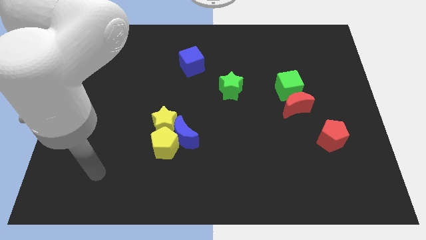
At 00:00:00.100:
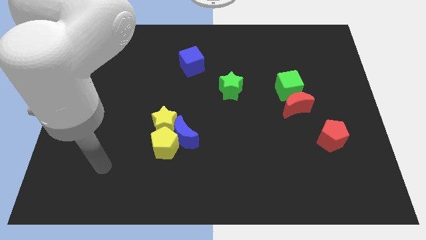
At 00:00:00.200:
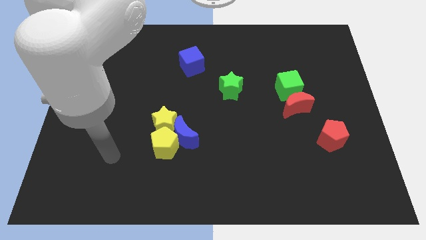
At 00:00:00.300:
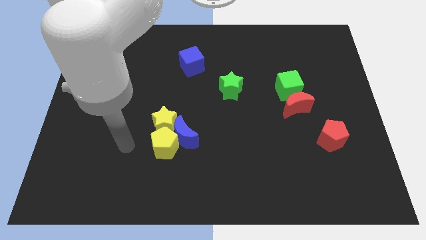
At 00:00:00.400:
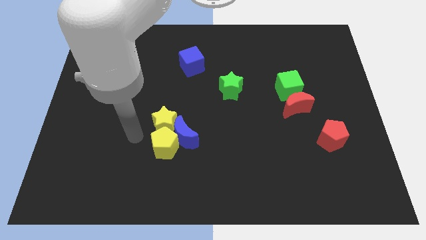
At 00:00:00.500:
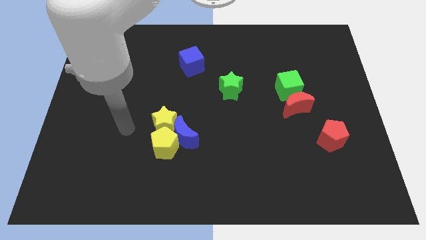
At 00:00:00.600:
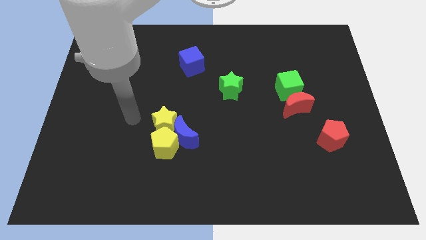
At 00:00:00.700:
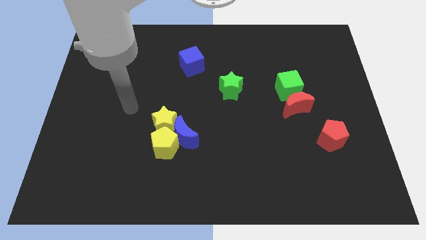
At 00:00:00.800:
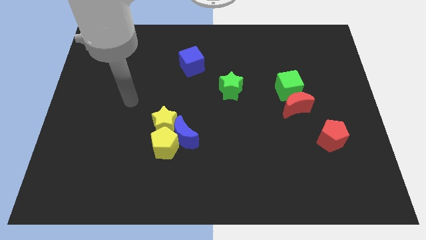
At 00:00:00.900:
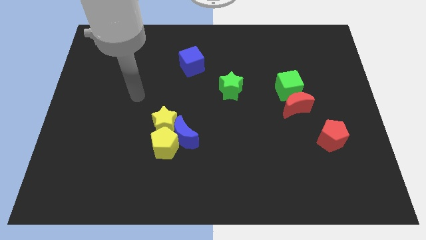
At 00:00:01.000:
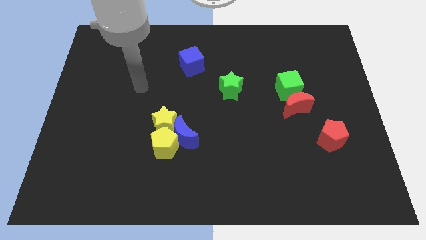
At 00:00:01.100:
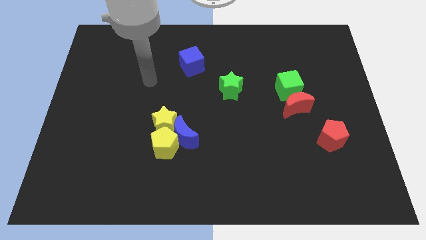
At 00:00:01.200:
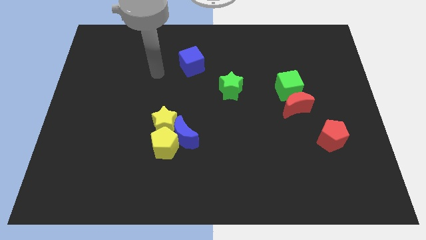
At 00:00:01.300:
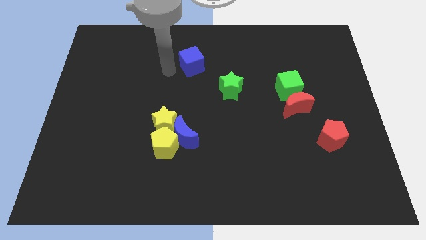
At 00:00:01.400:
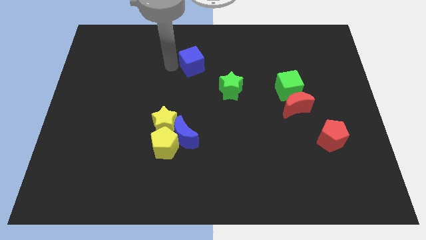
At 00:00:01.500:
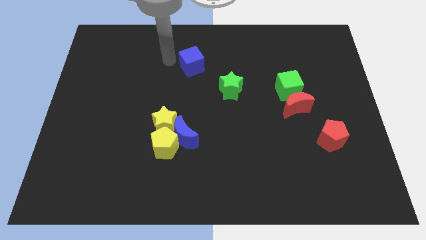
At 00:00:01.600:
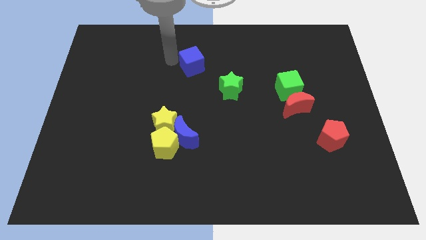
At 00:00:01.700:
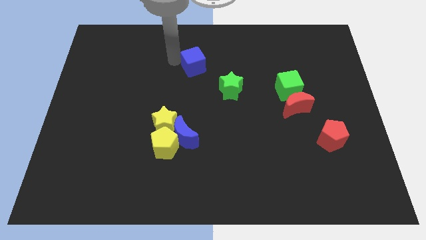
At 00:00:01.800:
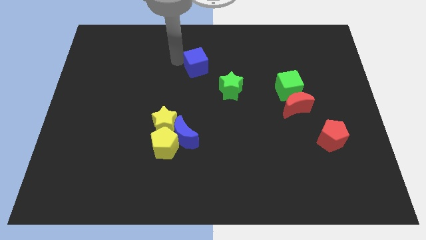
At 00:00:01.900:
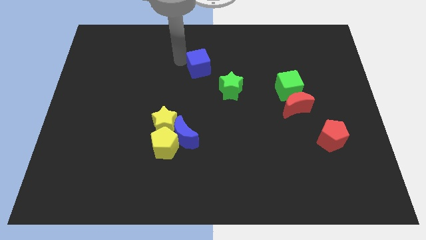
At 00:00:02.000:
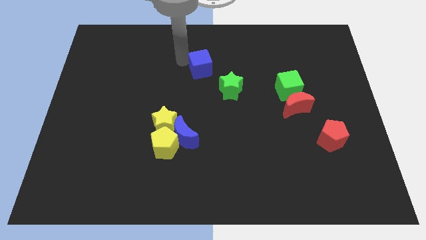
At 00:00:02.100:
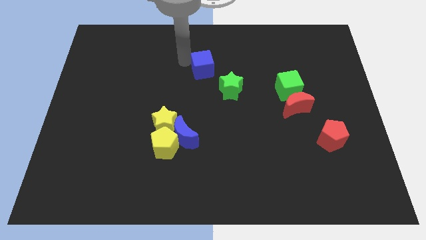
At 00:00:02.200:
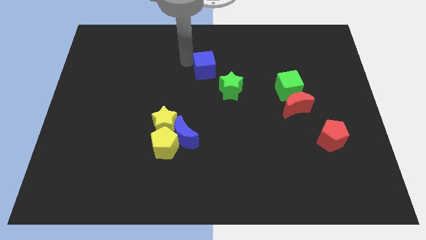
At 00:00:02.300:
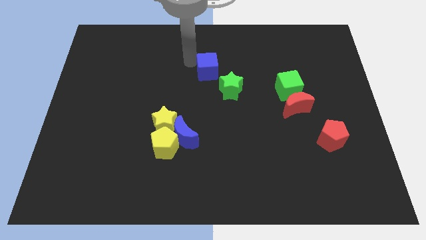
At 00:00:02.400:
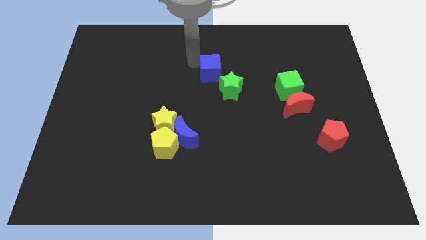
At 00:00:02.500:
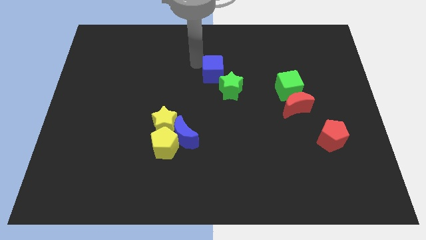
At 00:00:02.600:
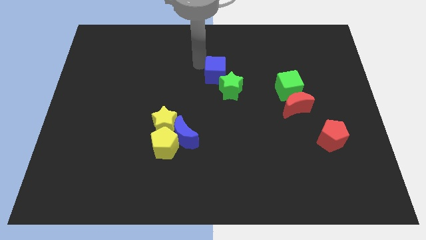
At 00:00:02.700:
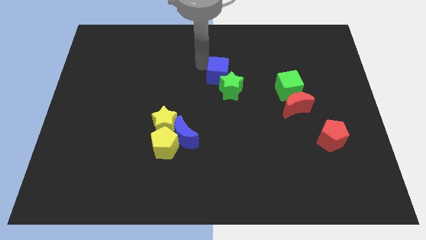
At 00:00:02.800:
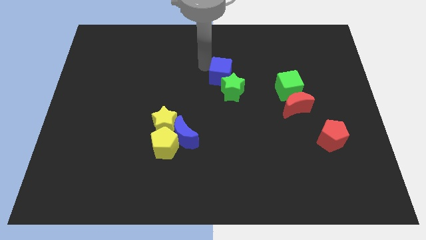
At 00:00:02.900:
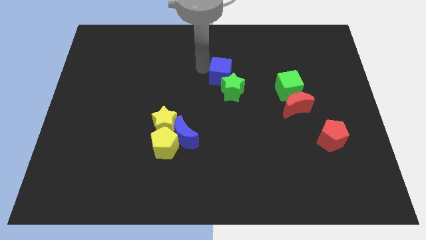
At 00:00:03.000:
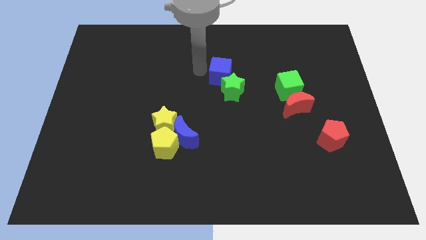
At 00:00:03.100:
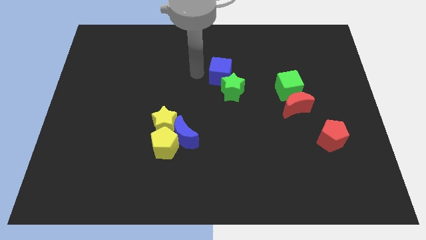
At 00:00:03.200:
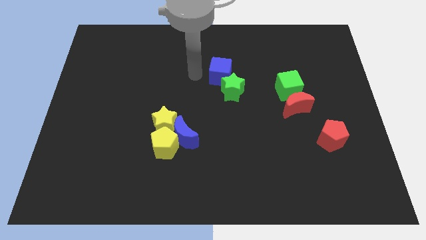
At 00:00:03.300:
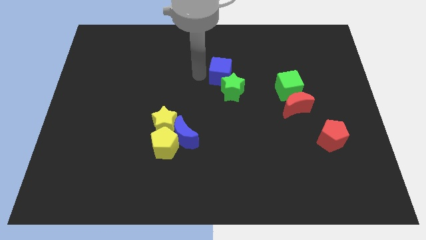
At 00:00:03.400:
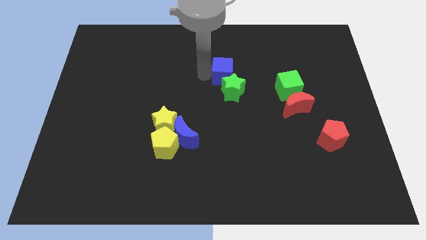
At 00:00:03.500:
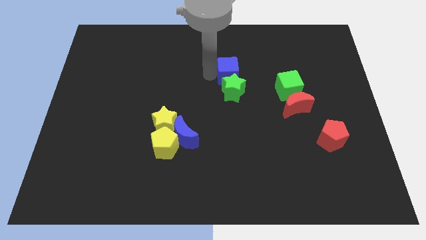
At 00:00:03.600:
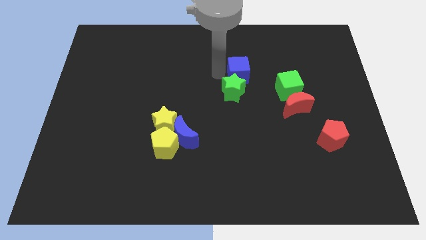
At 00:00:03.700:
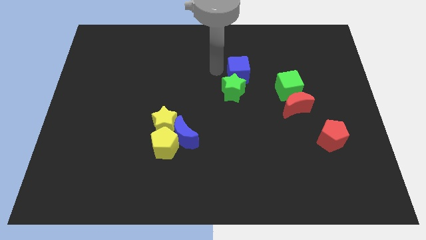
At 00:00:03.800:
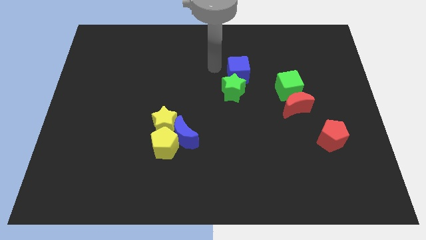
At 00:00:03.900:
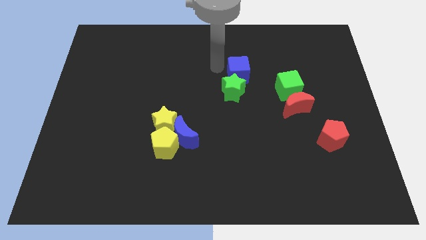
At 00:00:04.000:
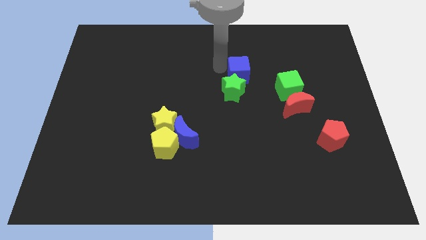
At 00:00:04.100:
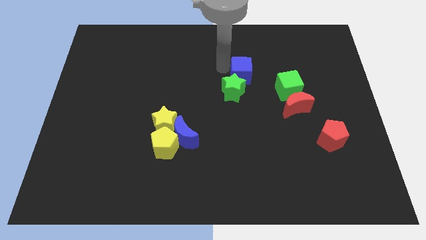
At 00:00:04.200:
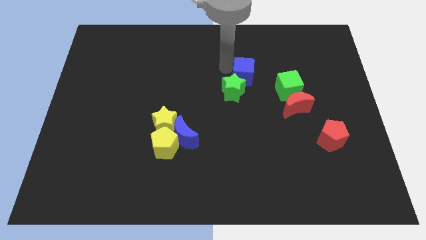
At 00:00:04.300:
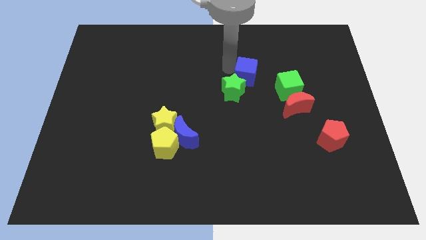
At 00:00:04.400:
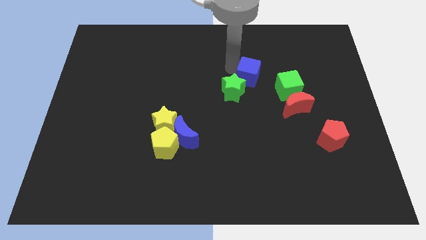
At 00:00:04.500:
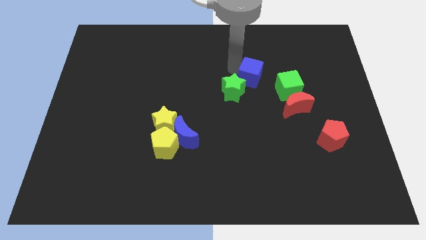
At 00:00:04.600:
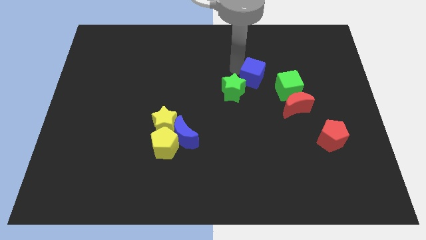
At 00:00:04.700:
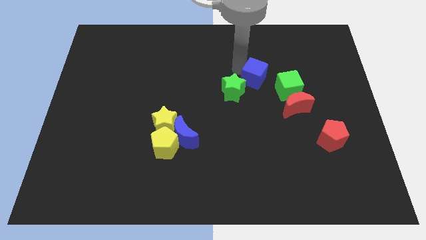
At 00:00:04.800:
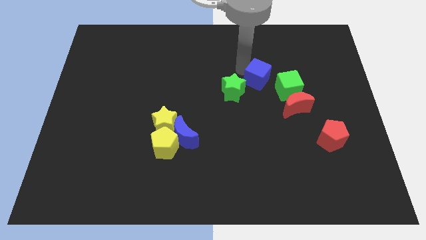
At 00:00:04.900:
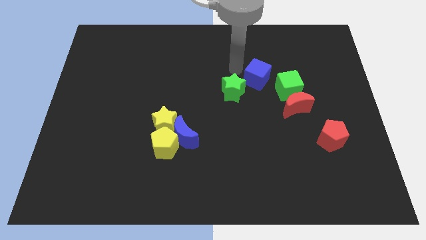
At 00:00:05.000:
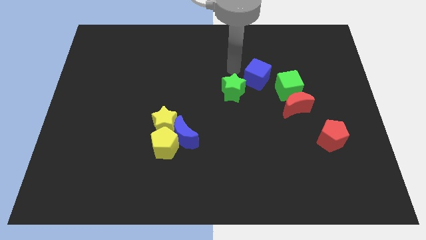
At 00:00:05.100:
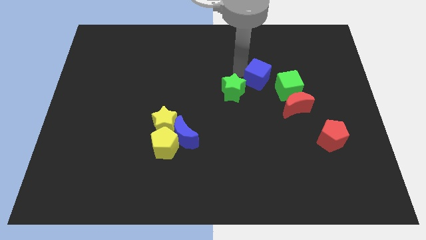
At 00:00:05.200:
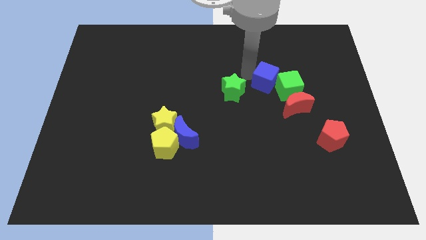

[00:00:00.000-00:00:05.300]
slide the blue cube close to the green cube

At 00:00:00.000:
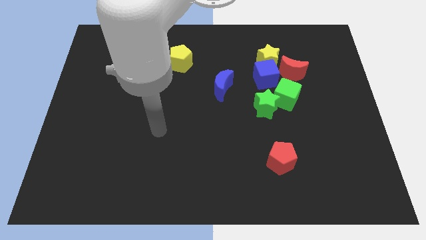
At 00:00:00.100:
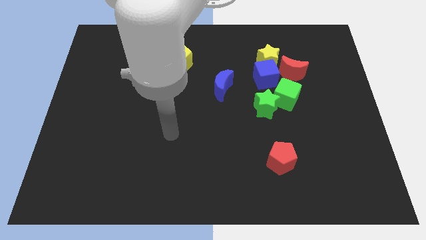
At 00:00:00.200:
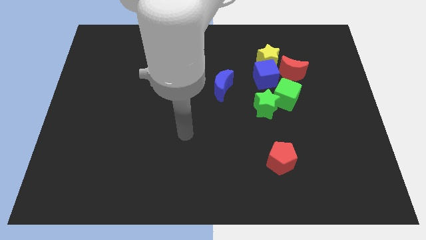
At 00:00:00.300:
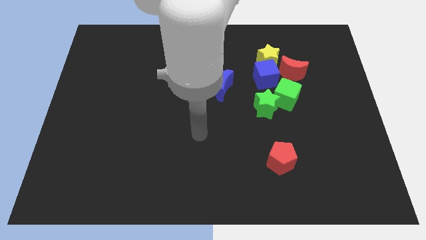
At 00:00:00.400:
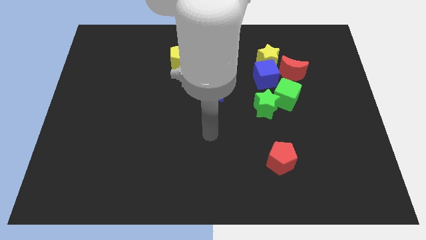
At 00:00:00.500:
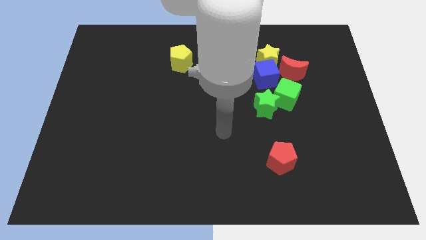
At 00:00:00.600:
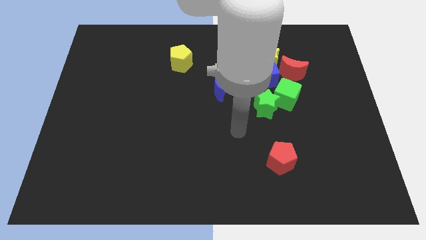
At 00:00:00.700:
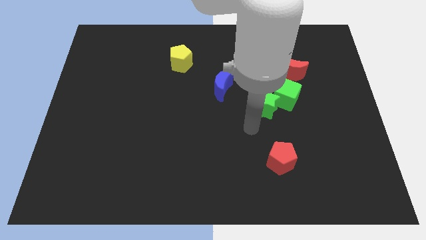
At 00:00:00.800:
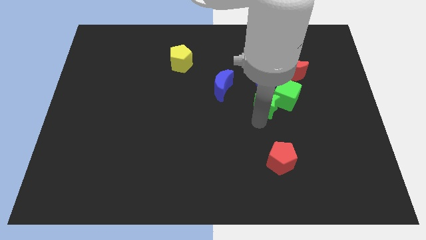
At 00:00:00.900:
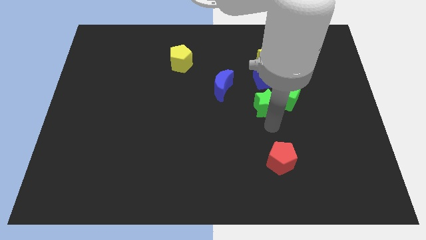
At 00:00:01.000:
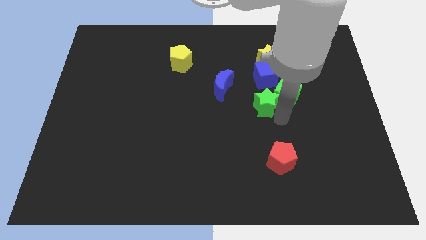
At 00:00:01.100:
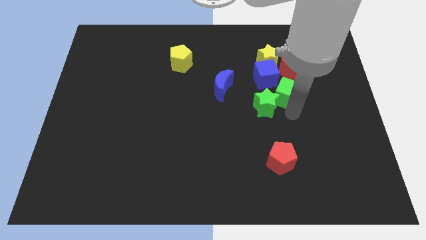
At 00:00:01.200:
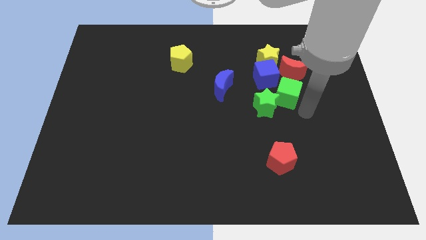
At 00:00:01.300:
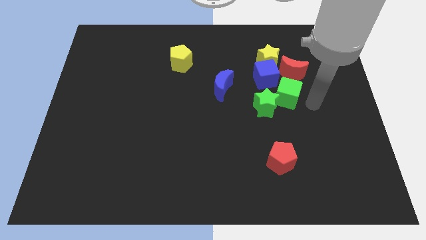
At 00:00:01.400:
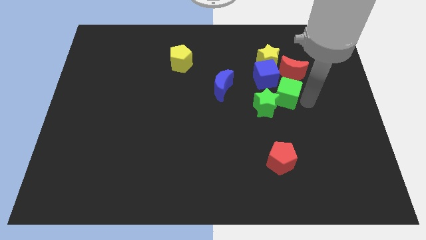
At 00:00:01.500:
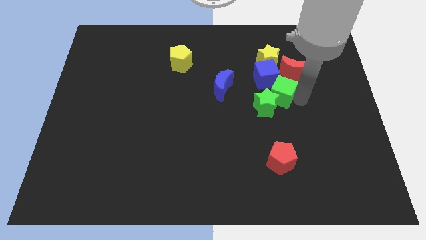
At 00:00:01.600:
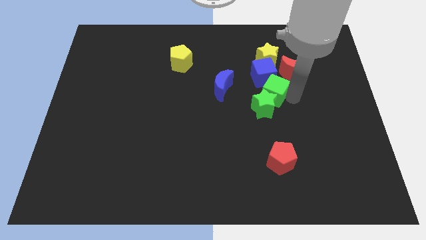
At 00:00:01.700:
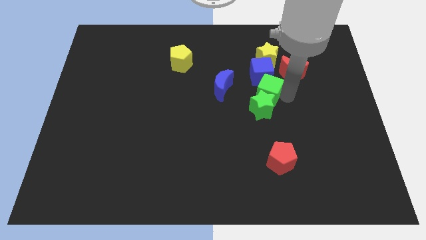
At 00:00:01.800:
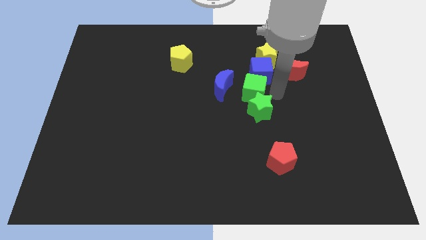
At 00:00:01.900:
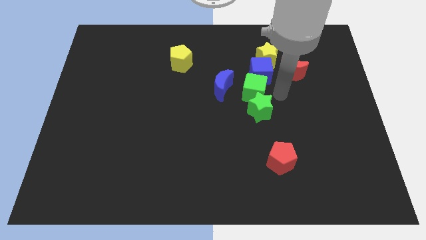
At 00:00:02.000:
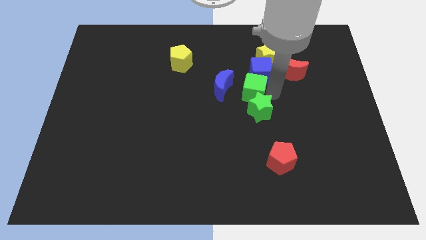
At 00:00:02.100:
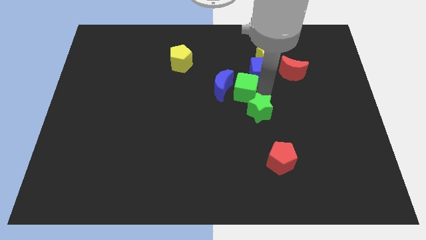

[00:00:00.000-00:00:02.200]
put the green cube next to the blue moon
